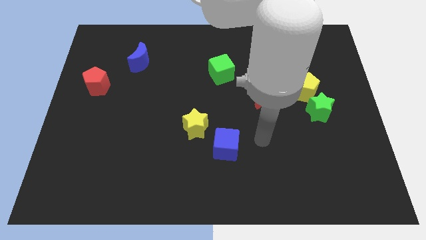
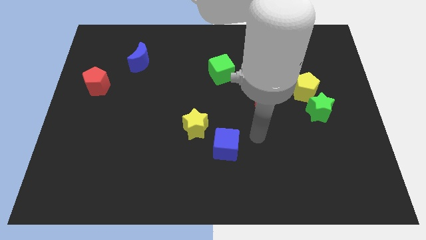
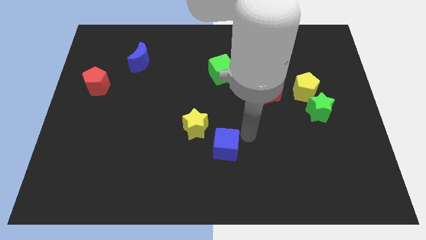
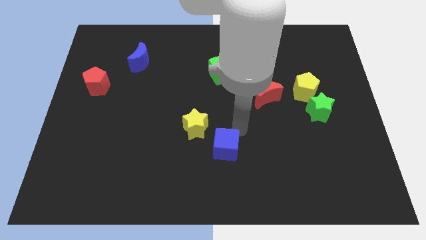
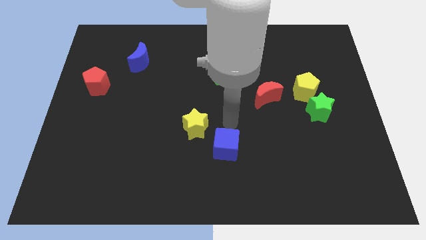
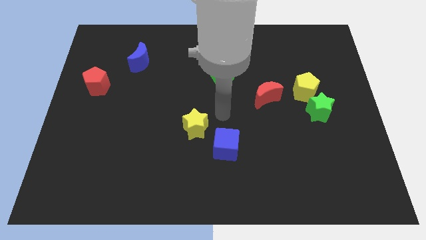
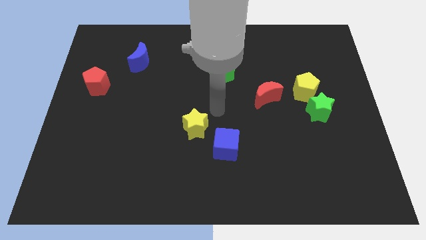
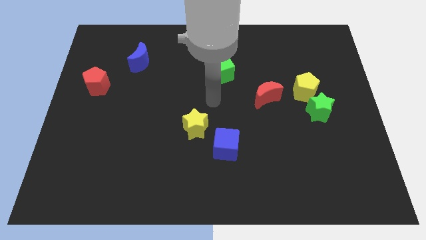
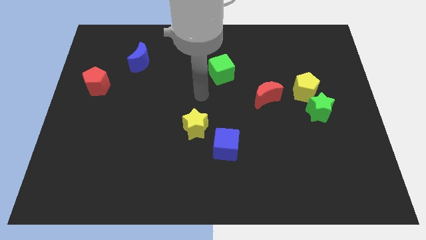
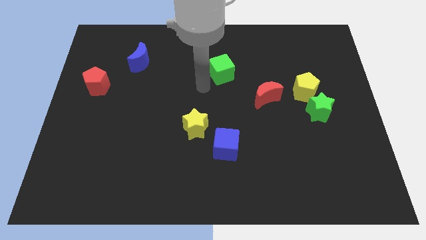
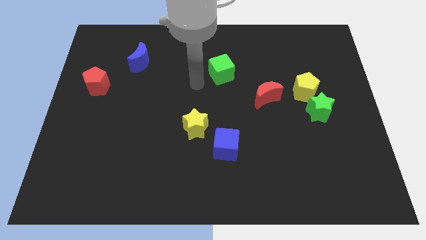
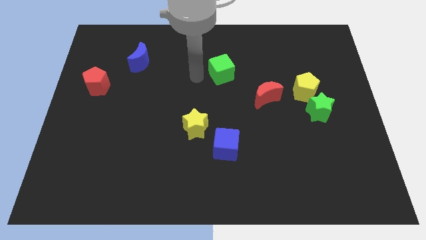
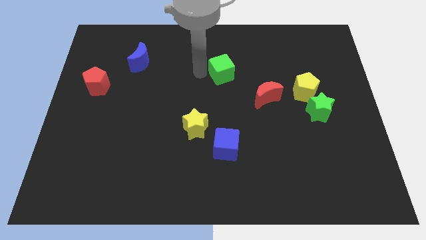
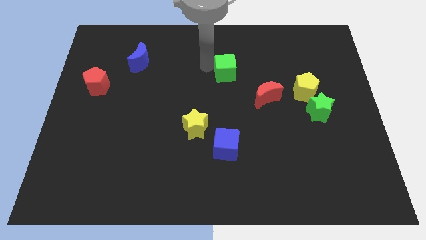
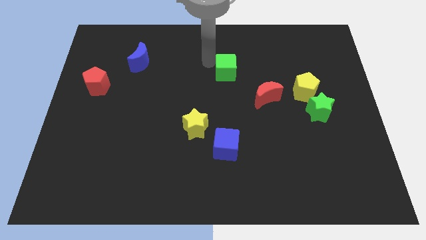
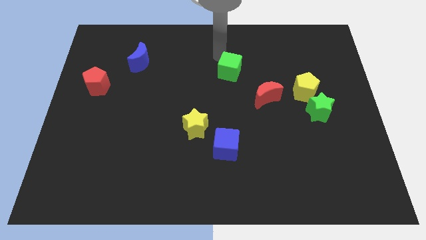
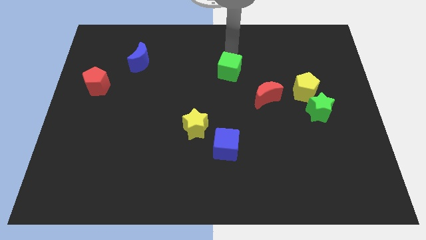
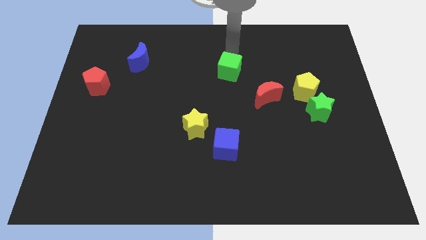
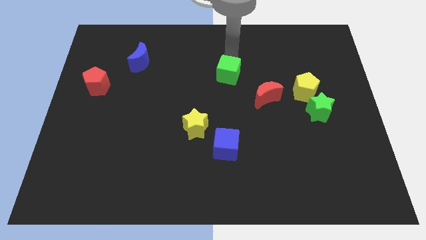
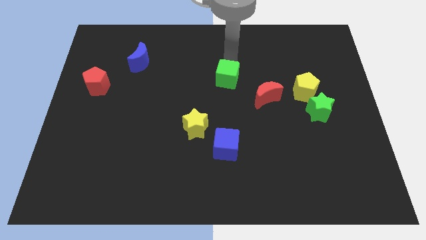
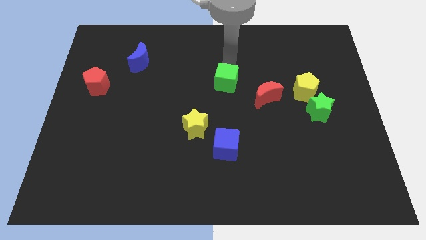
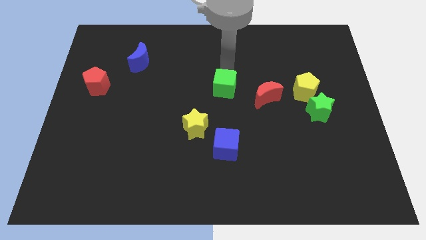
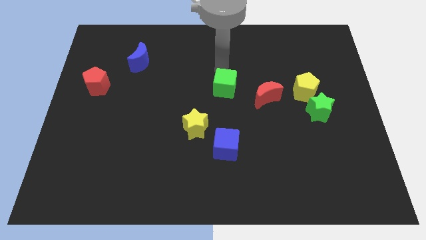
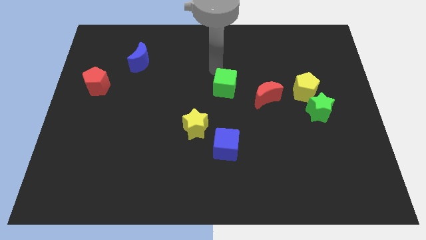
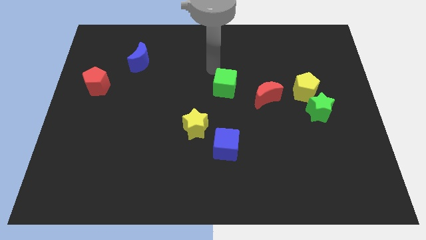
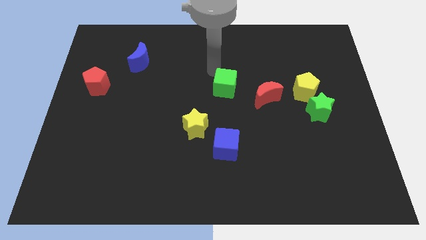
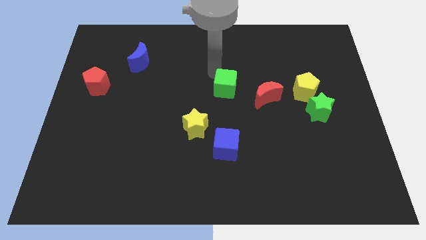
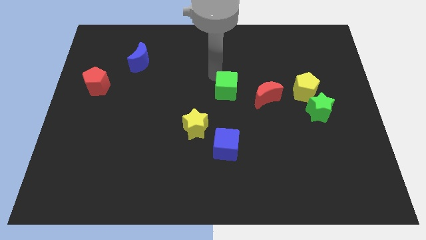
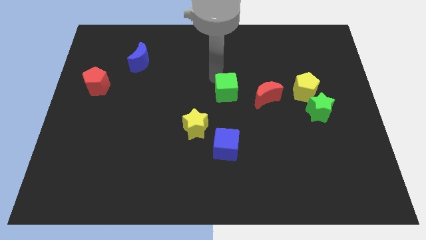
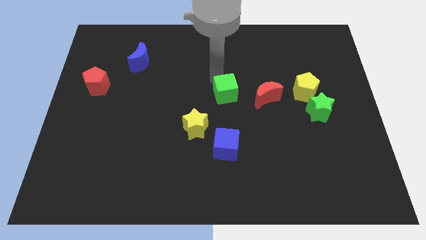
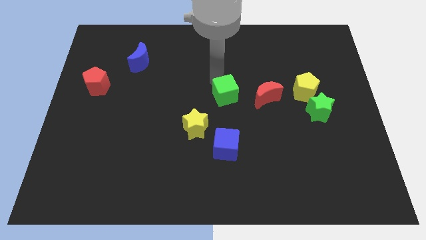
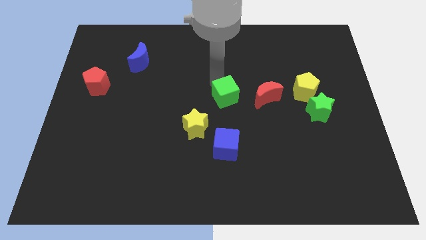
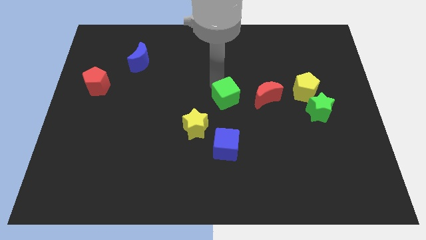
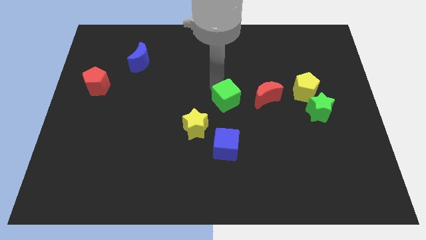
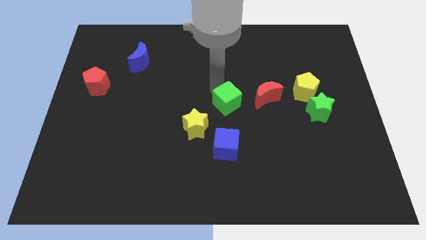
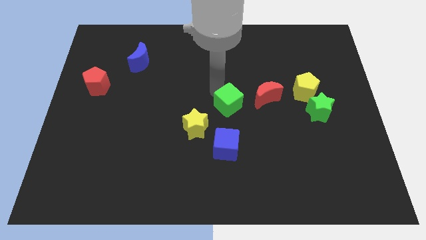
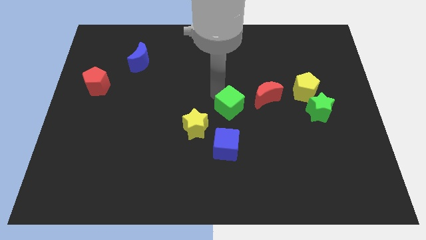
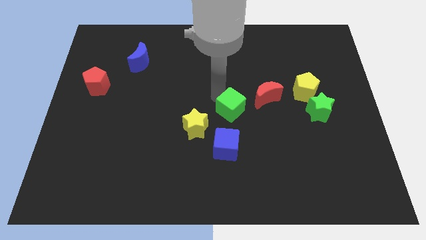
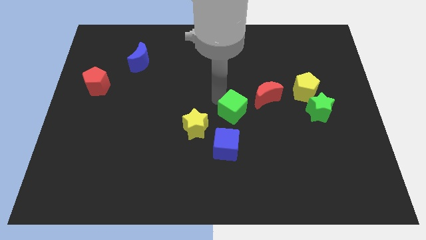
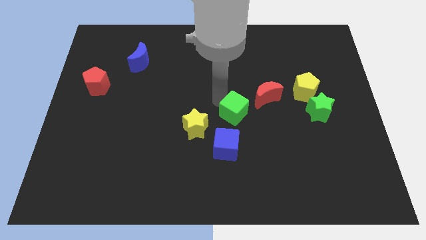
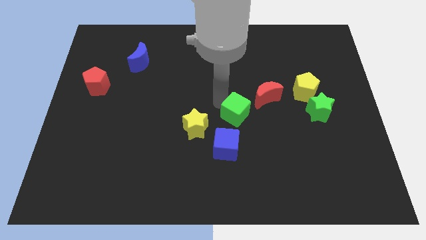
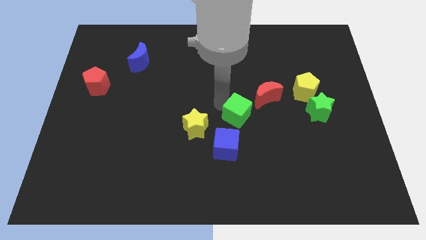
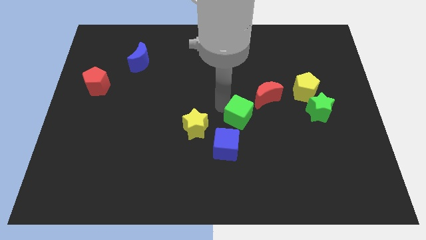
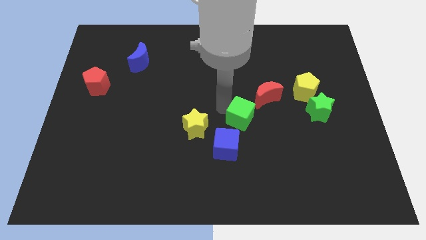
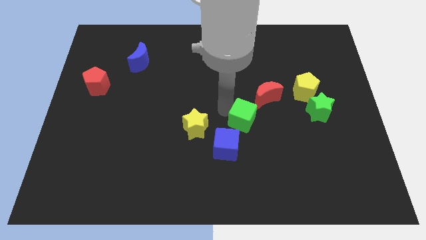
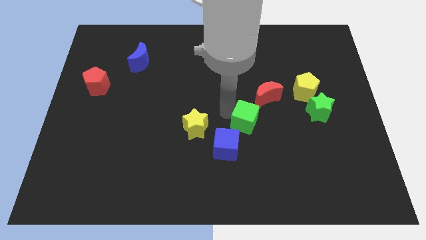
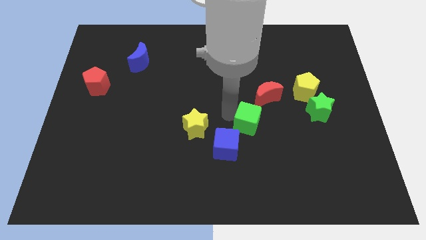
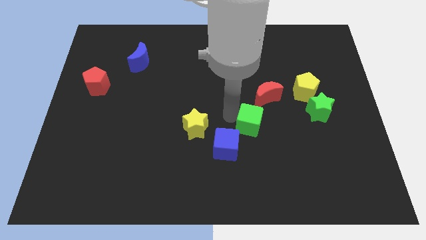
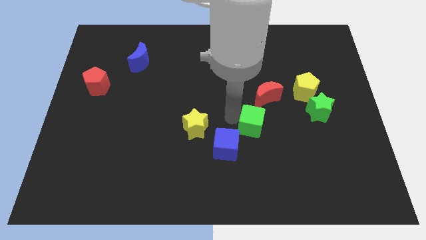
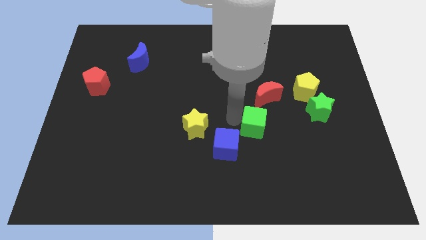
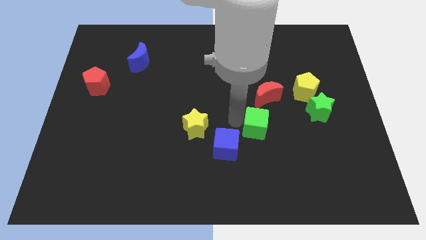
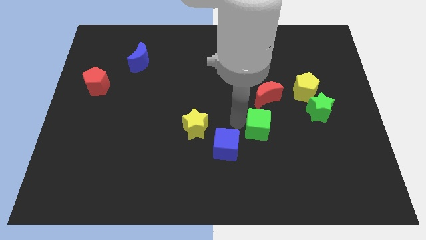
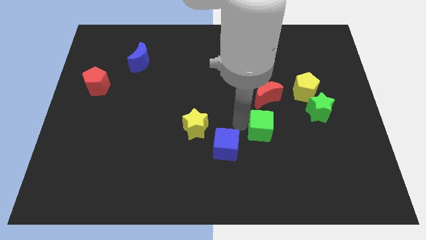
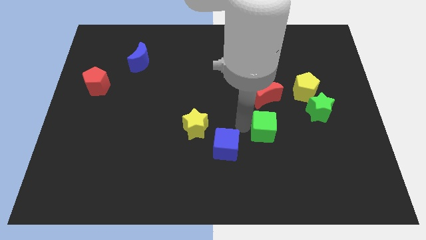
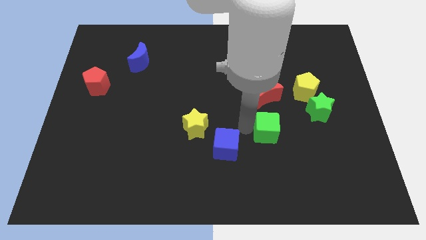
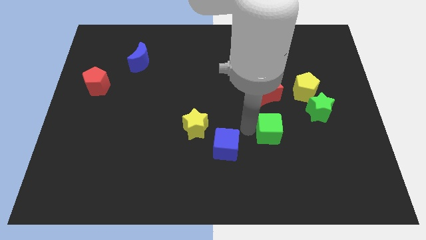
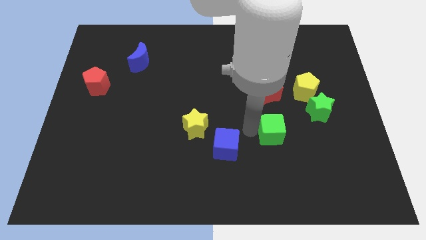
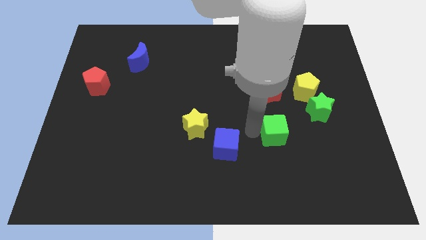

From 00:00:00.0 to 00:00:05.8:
push the green cube downwards and to the right

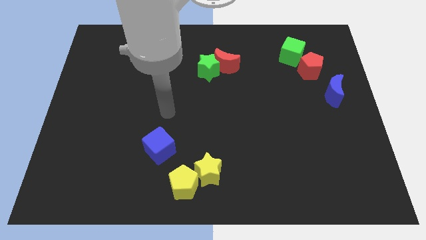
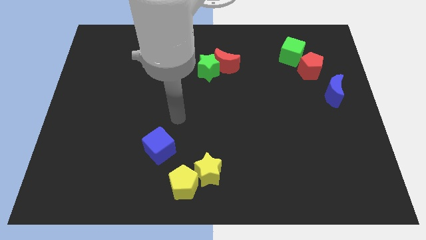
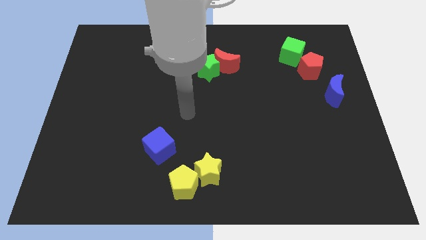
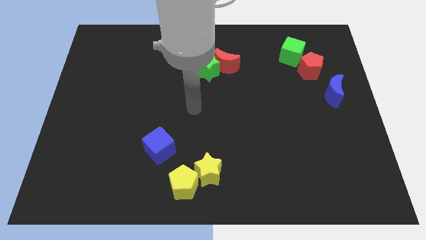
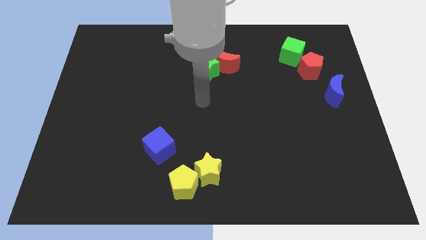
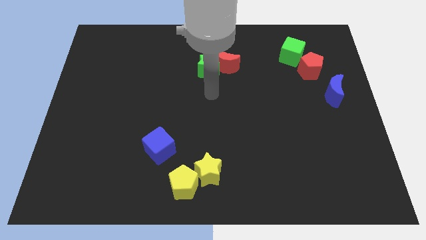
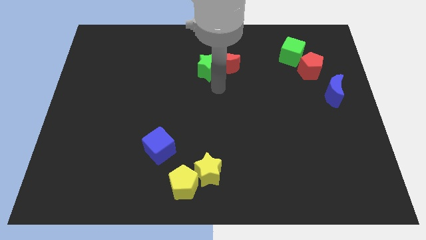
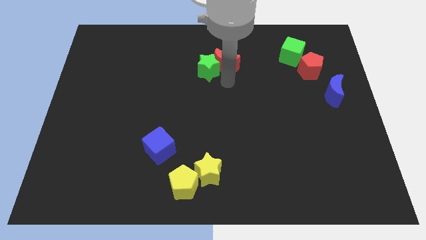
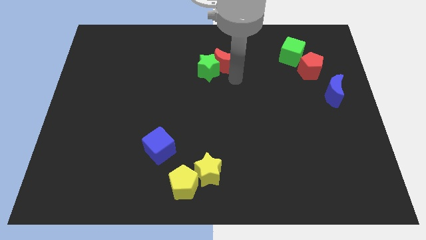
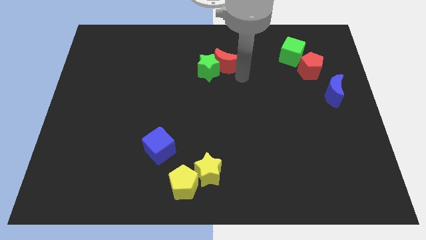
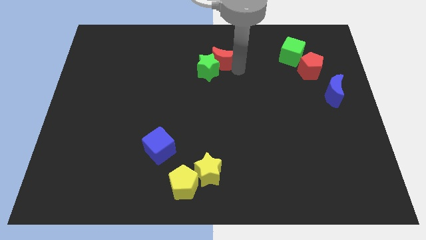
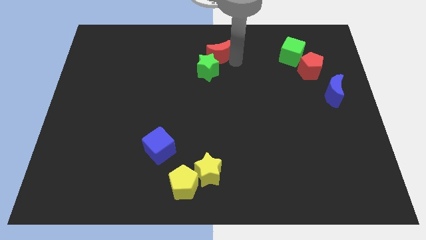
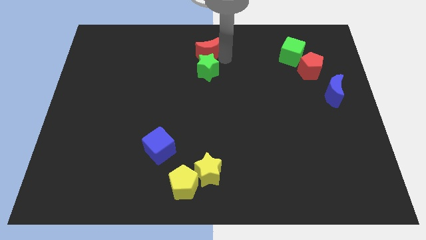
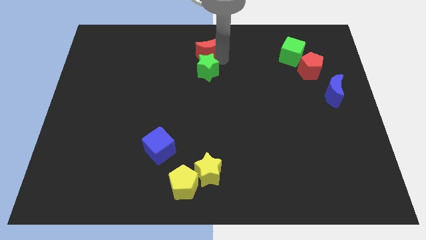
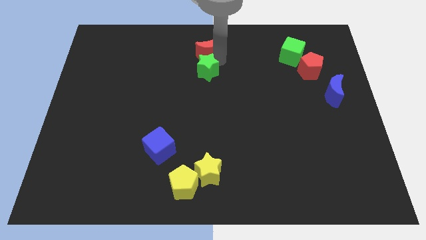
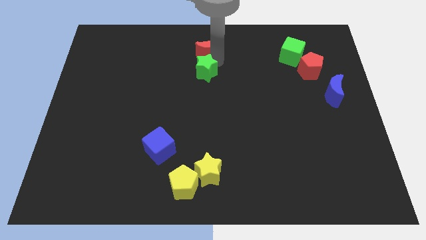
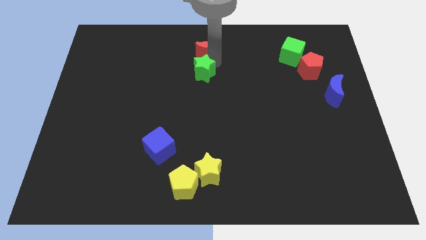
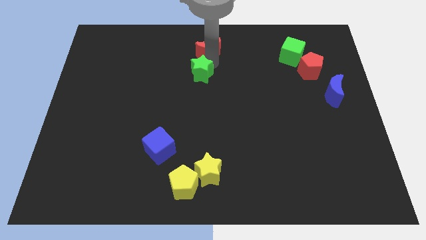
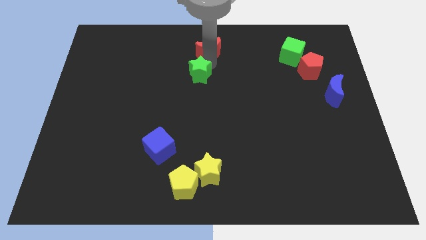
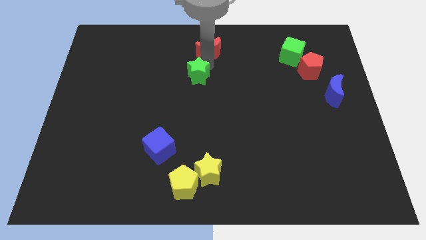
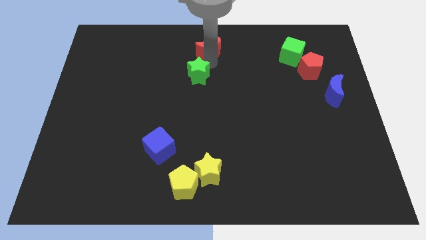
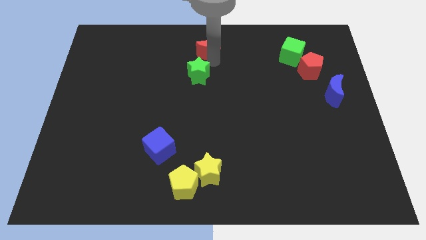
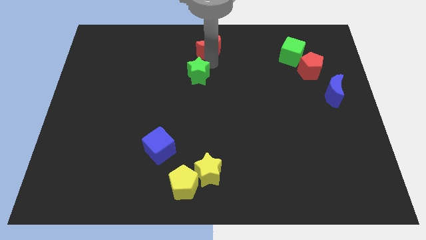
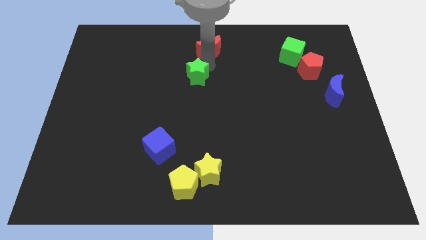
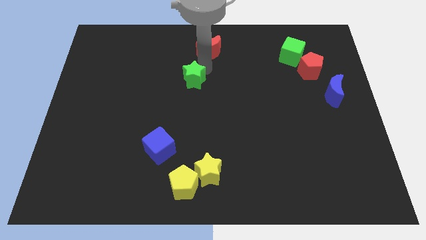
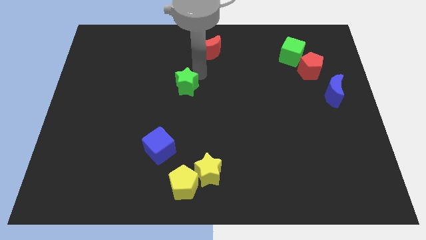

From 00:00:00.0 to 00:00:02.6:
push the green star a bit diagonally downwards and to the left
